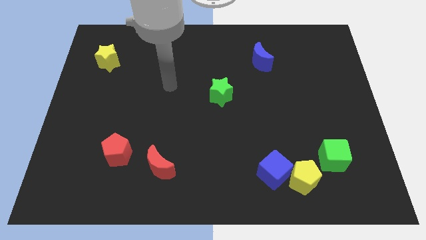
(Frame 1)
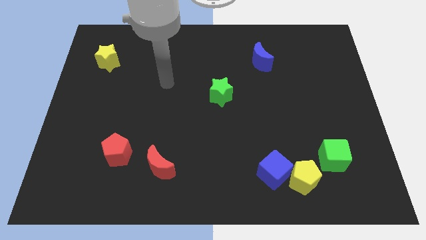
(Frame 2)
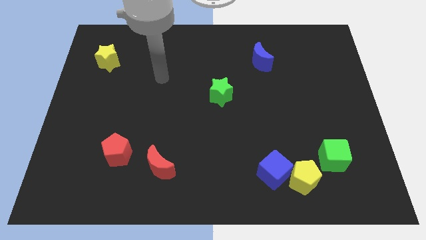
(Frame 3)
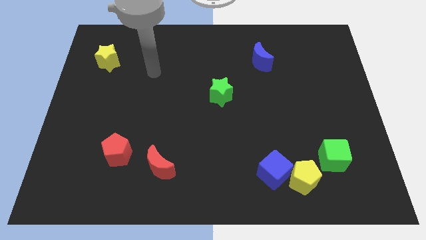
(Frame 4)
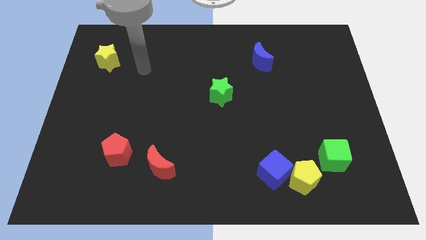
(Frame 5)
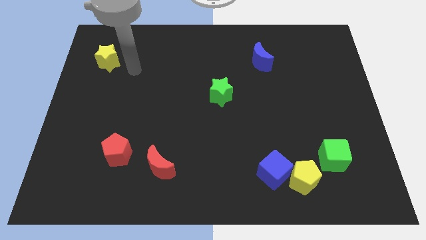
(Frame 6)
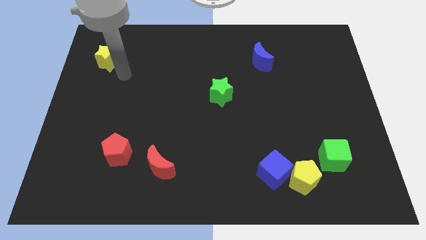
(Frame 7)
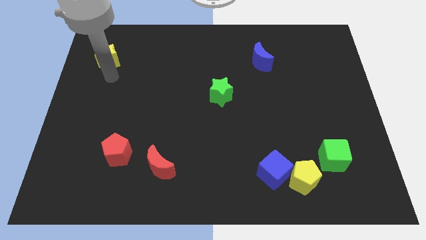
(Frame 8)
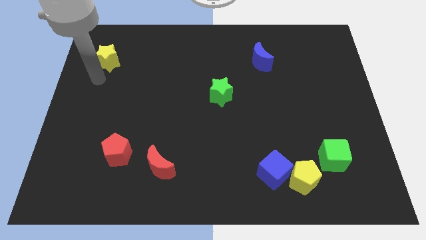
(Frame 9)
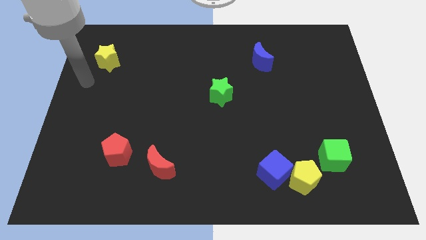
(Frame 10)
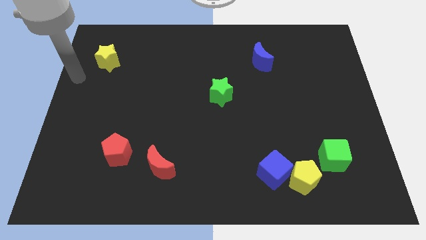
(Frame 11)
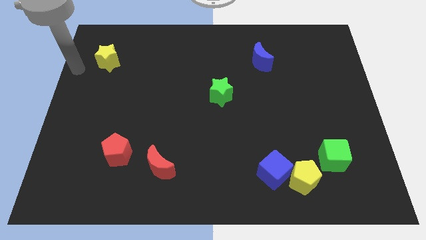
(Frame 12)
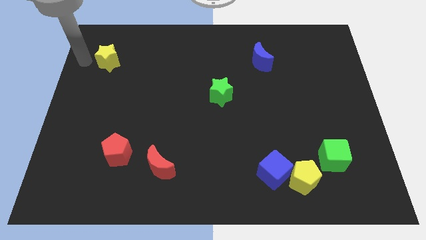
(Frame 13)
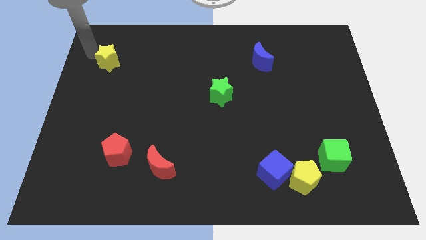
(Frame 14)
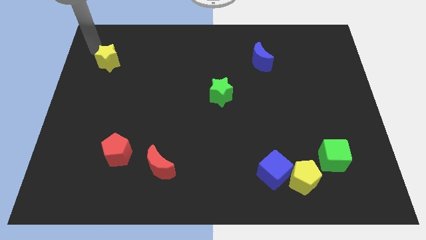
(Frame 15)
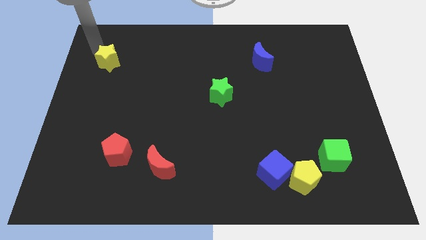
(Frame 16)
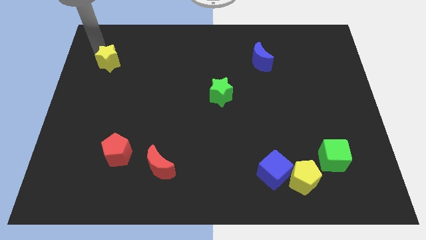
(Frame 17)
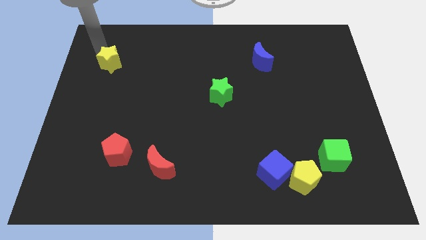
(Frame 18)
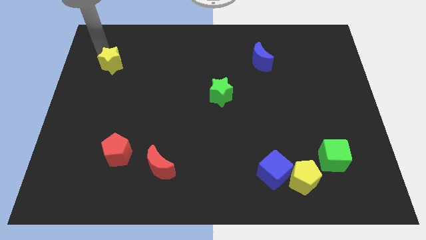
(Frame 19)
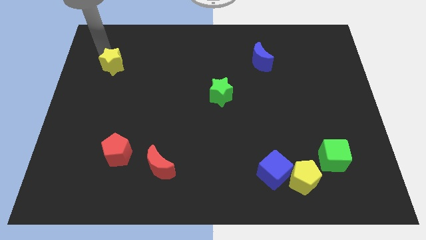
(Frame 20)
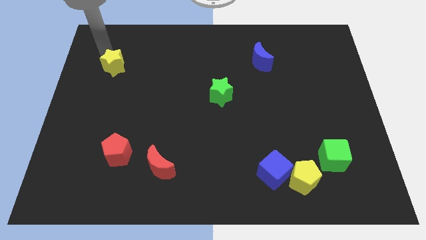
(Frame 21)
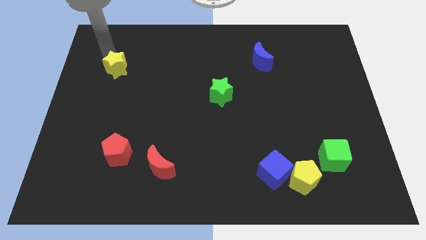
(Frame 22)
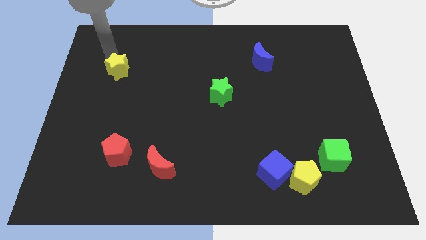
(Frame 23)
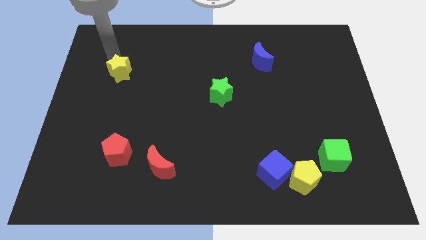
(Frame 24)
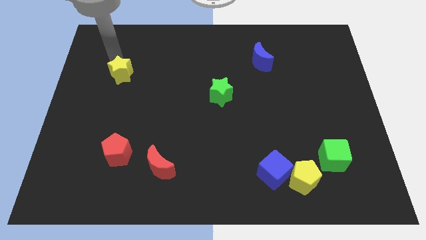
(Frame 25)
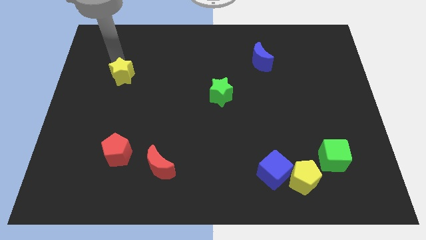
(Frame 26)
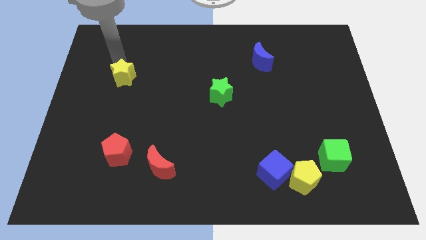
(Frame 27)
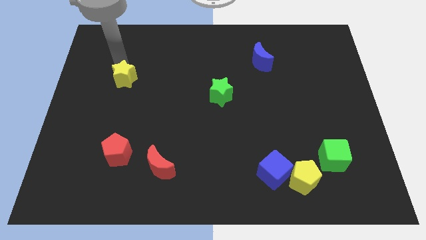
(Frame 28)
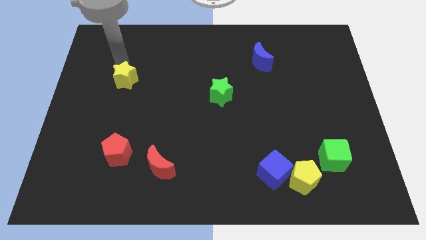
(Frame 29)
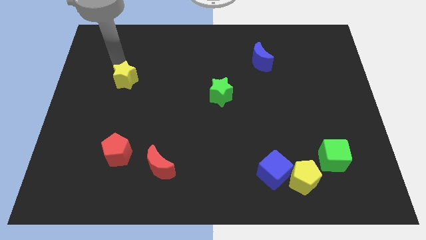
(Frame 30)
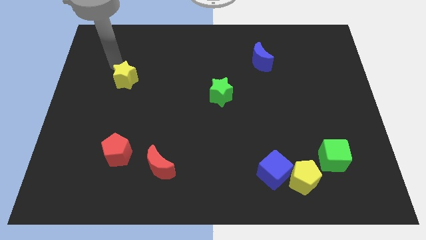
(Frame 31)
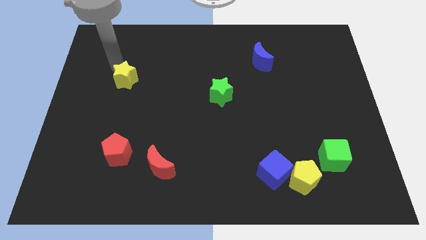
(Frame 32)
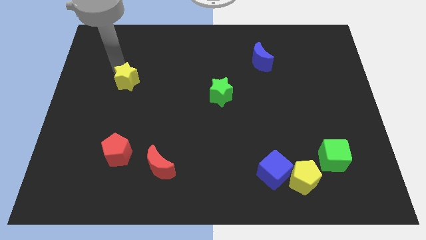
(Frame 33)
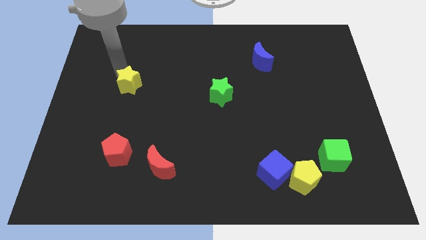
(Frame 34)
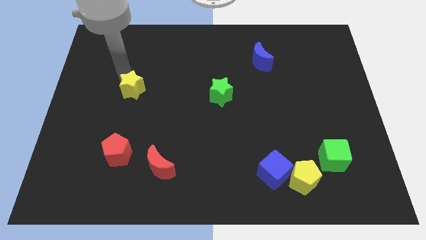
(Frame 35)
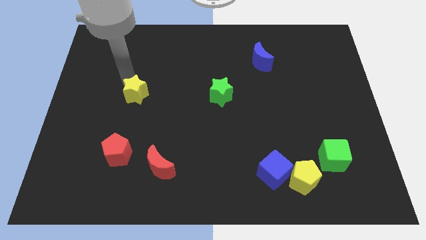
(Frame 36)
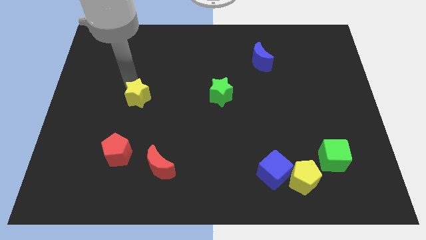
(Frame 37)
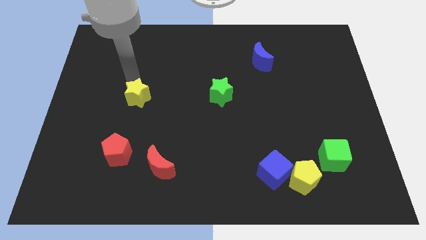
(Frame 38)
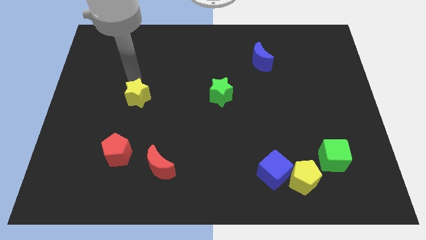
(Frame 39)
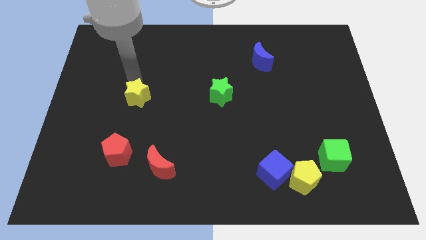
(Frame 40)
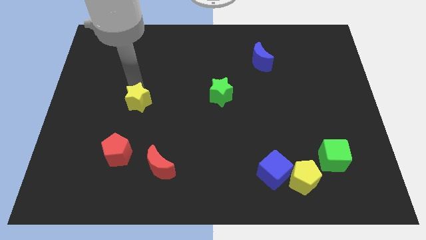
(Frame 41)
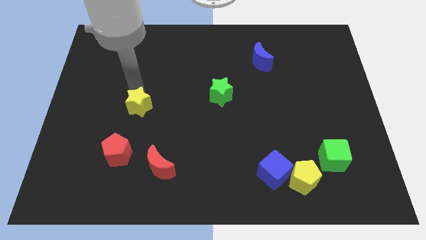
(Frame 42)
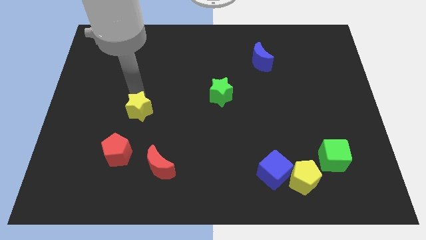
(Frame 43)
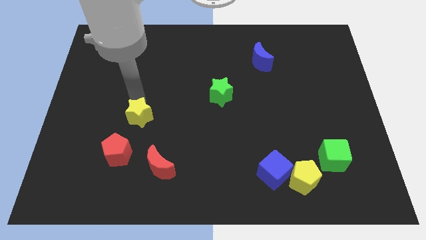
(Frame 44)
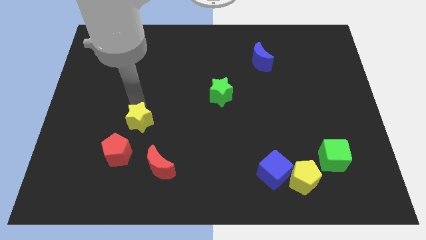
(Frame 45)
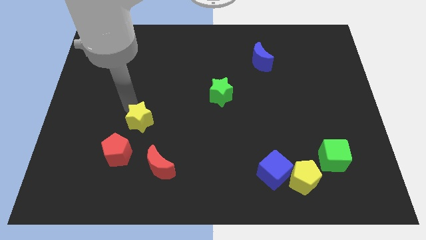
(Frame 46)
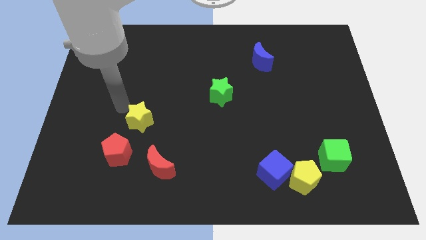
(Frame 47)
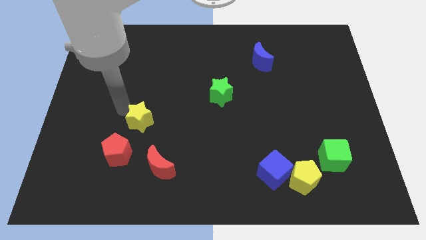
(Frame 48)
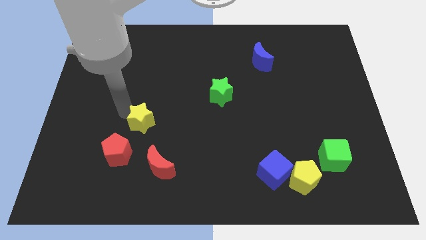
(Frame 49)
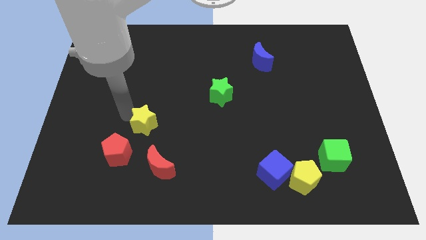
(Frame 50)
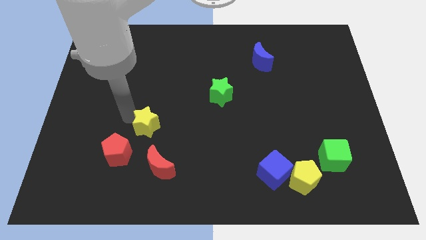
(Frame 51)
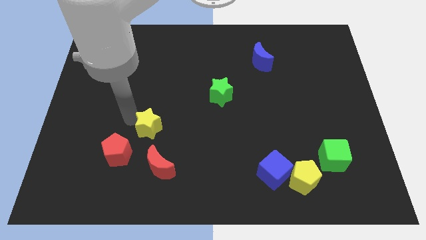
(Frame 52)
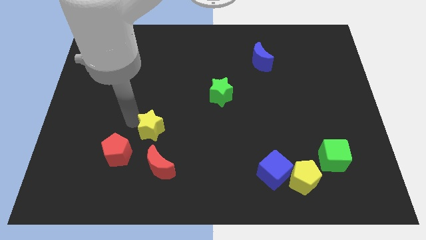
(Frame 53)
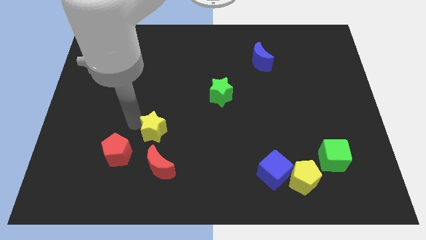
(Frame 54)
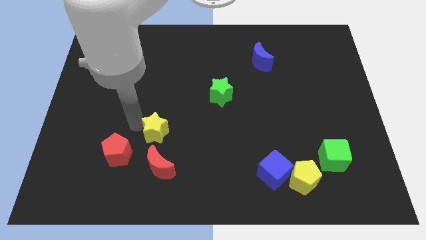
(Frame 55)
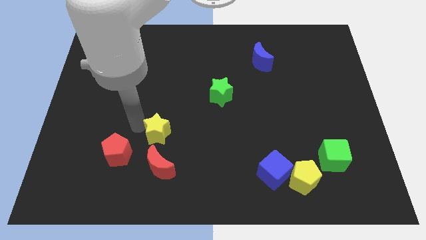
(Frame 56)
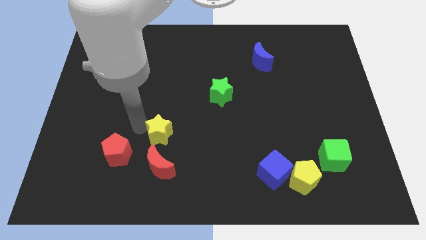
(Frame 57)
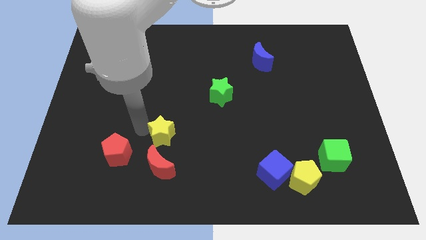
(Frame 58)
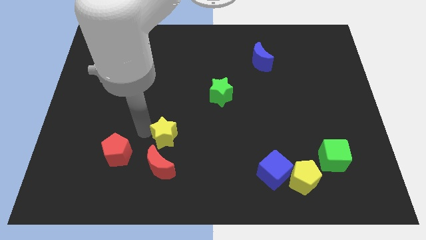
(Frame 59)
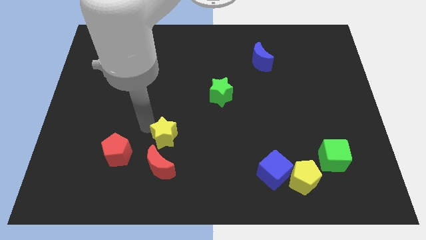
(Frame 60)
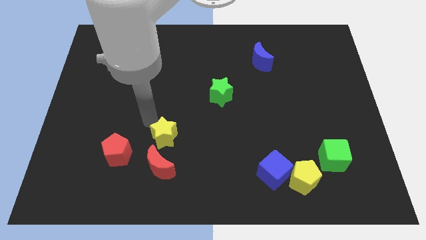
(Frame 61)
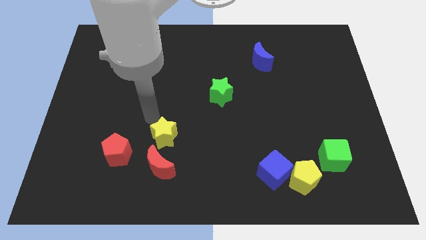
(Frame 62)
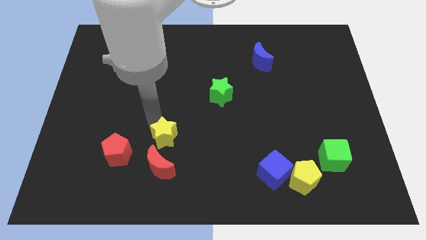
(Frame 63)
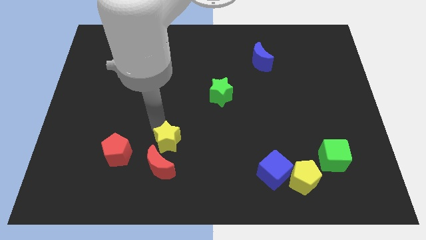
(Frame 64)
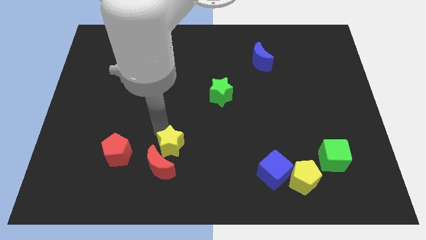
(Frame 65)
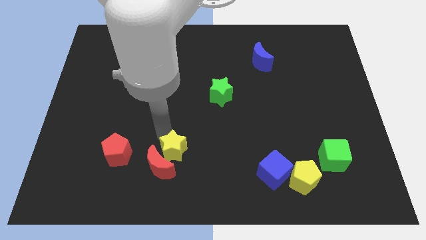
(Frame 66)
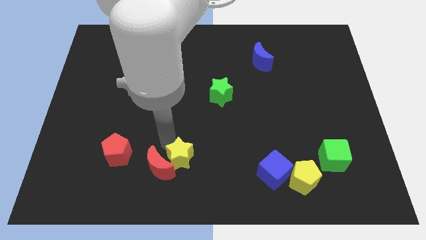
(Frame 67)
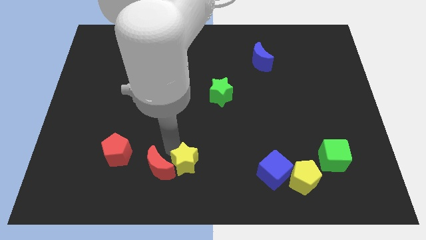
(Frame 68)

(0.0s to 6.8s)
push the yellow star to the bottom

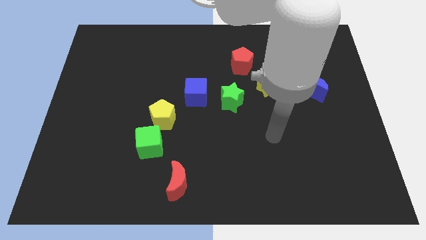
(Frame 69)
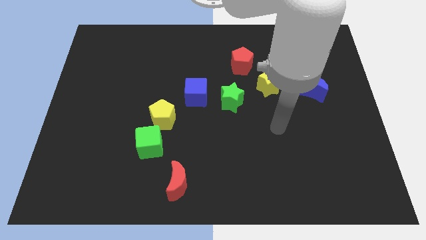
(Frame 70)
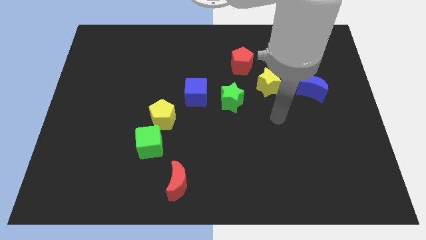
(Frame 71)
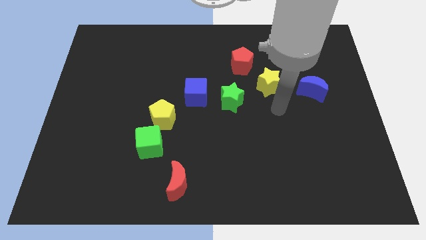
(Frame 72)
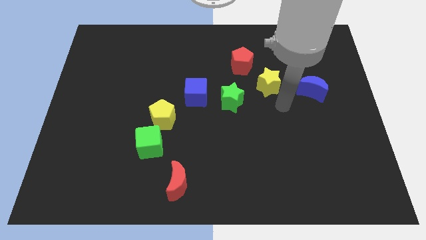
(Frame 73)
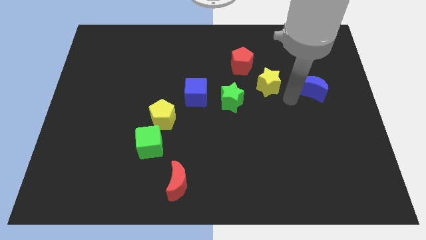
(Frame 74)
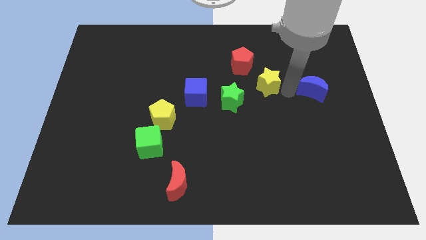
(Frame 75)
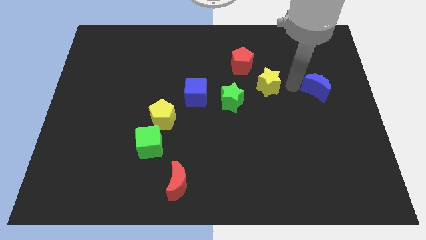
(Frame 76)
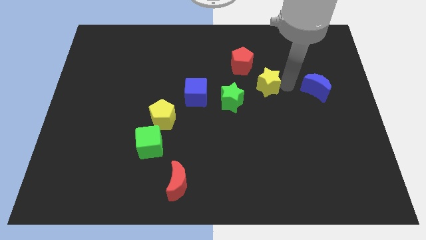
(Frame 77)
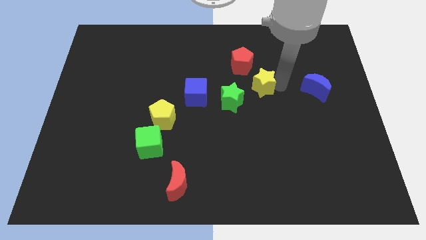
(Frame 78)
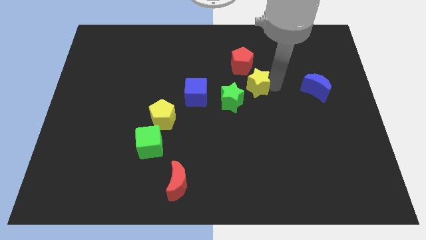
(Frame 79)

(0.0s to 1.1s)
move the yellow star to the middle of the board
